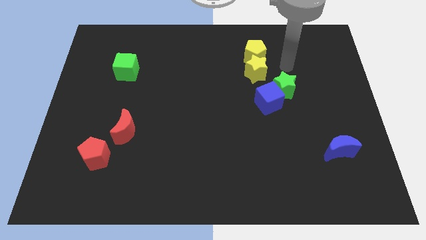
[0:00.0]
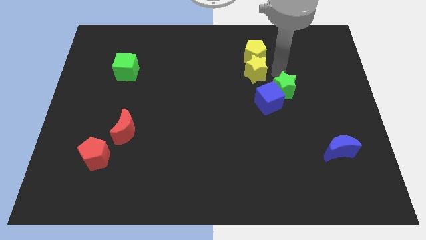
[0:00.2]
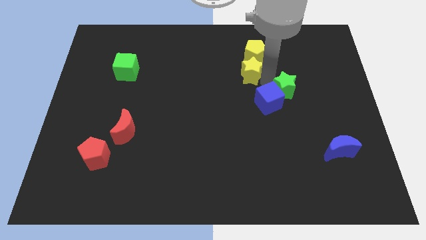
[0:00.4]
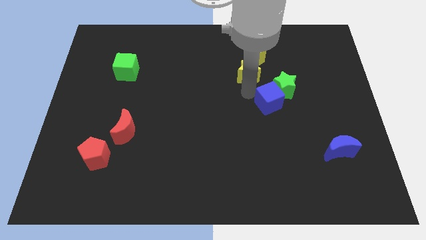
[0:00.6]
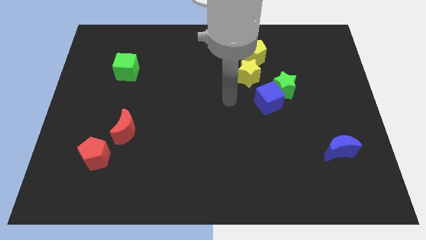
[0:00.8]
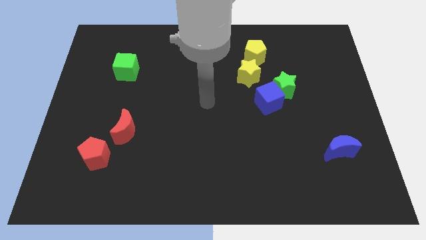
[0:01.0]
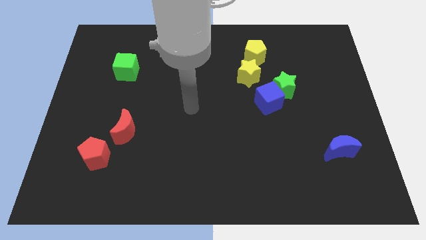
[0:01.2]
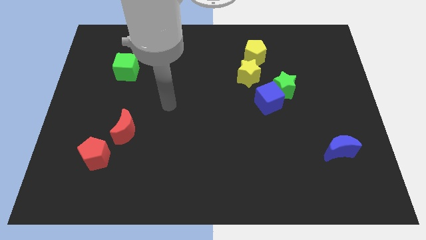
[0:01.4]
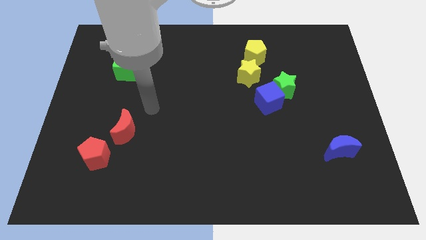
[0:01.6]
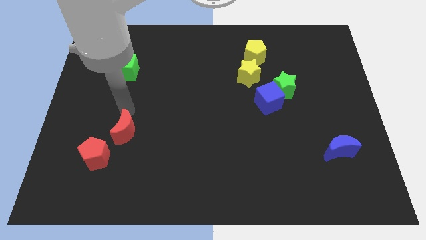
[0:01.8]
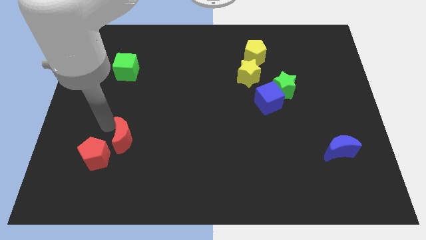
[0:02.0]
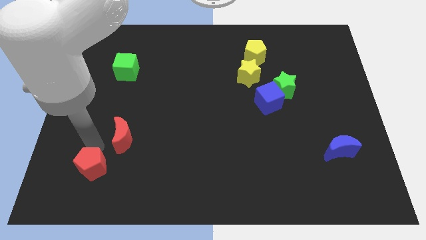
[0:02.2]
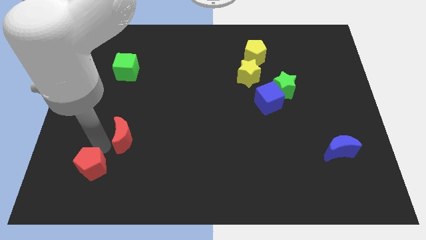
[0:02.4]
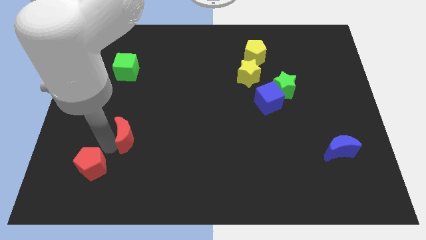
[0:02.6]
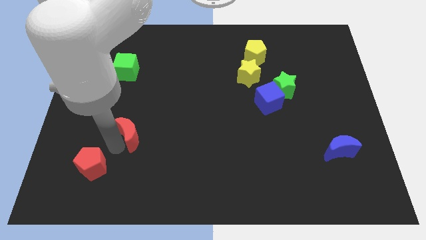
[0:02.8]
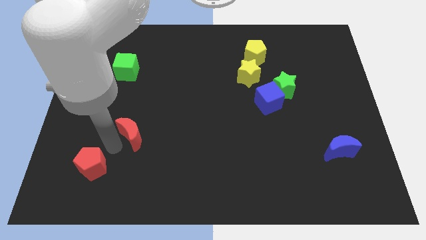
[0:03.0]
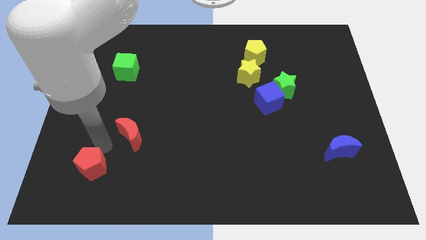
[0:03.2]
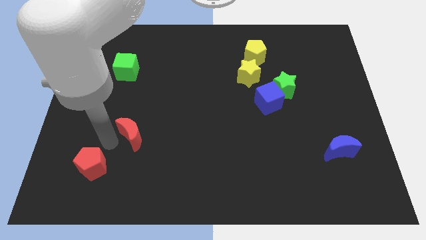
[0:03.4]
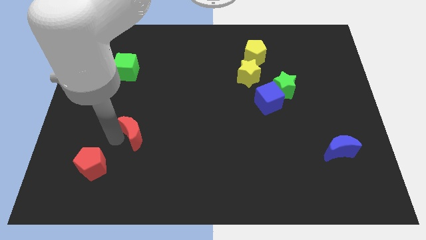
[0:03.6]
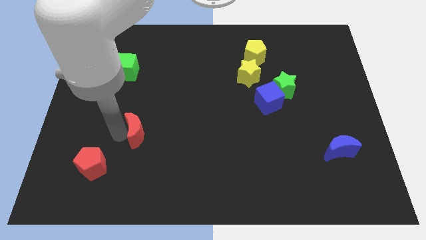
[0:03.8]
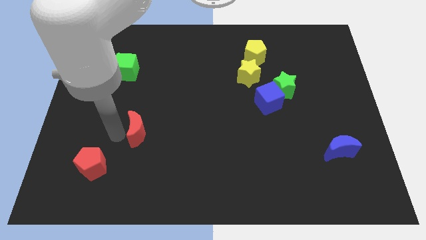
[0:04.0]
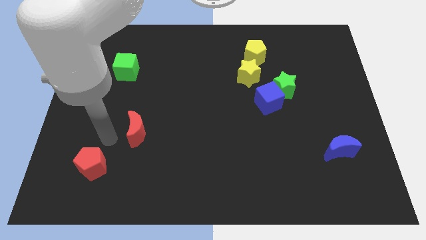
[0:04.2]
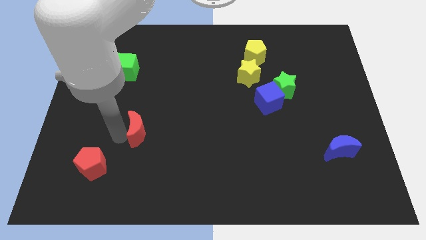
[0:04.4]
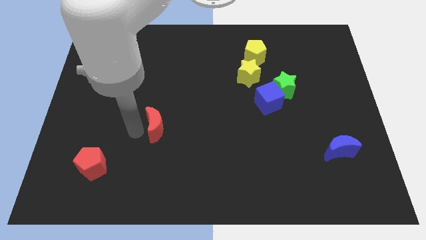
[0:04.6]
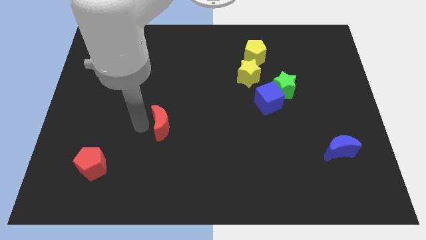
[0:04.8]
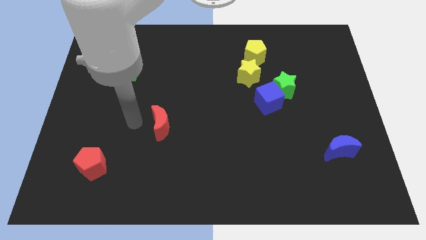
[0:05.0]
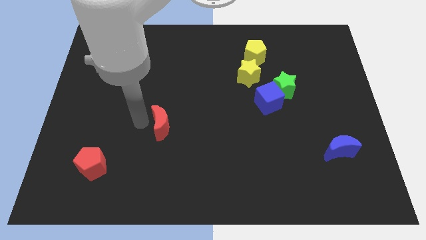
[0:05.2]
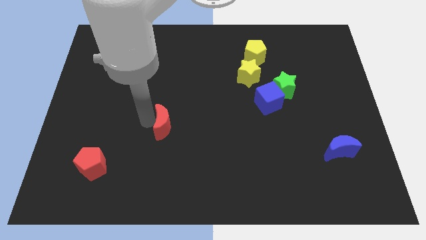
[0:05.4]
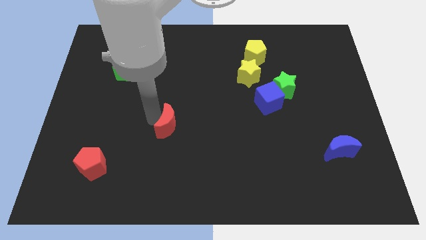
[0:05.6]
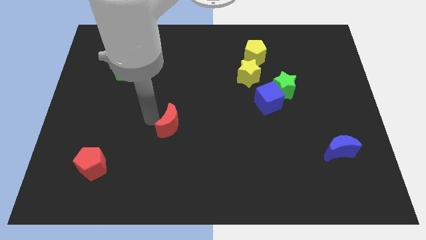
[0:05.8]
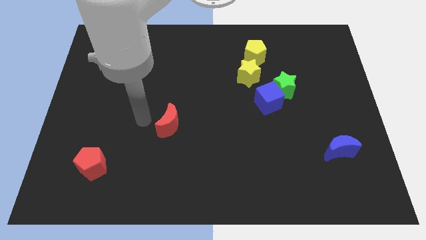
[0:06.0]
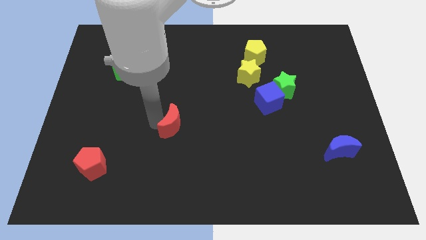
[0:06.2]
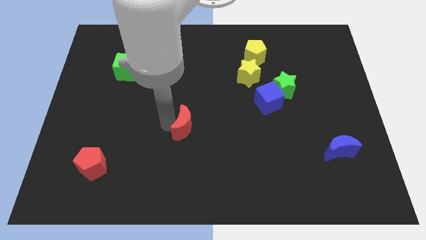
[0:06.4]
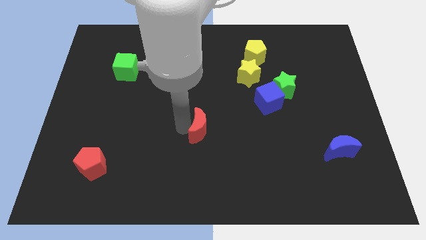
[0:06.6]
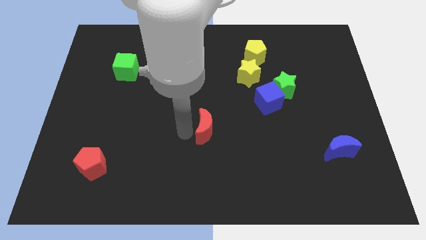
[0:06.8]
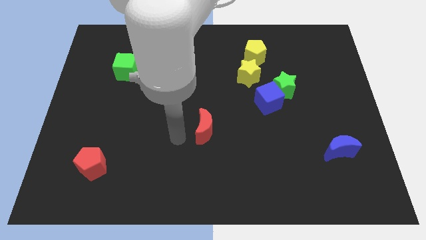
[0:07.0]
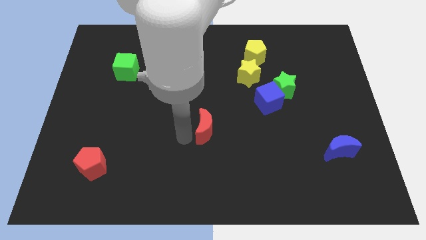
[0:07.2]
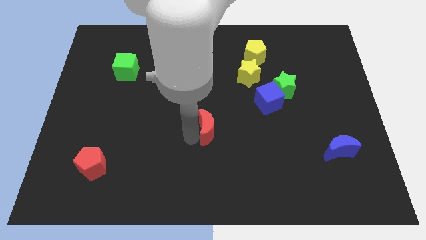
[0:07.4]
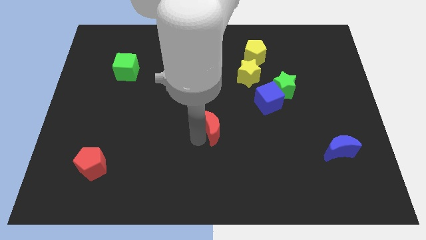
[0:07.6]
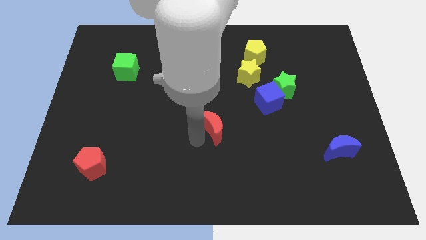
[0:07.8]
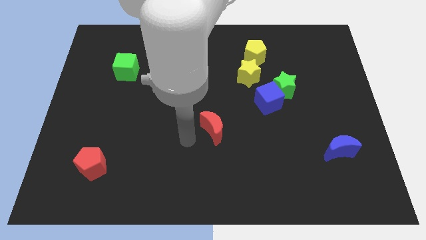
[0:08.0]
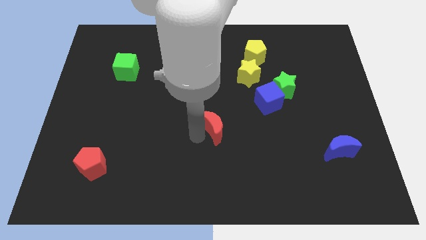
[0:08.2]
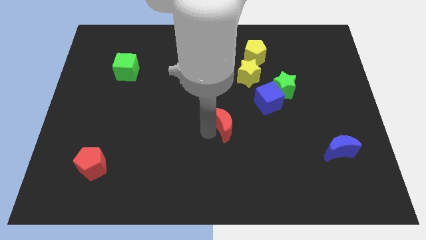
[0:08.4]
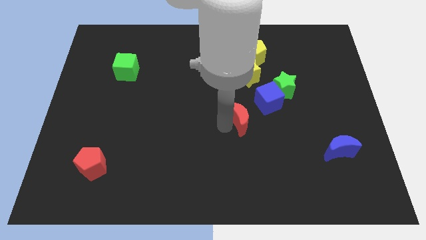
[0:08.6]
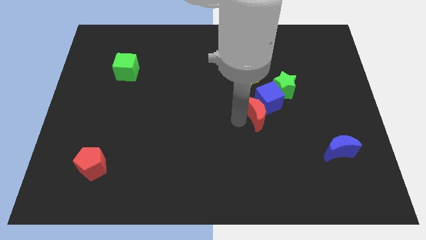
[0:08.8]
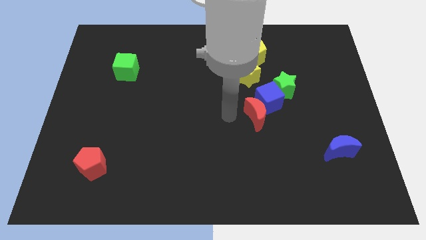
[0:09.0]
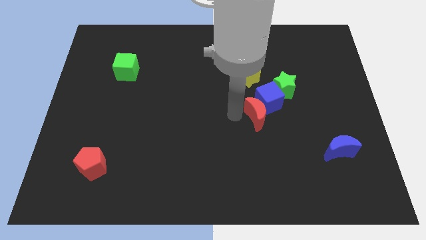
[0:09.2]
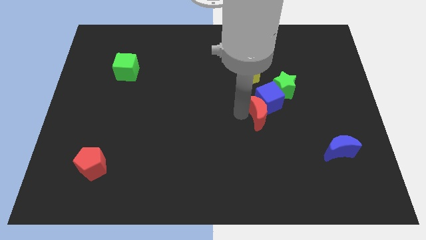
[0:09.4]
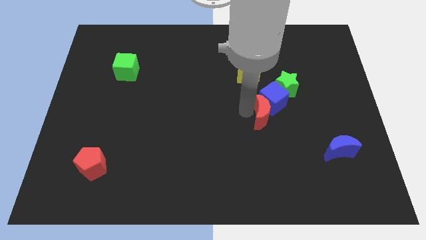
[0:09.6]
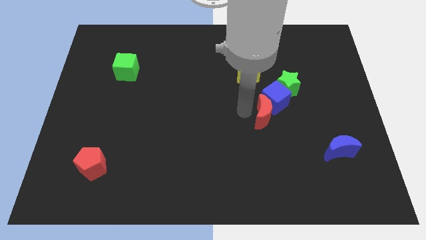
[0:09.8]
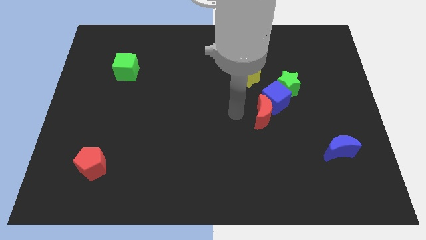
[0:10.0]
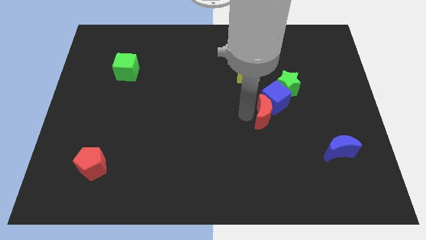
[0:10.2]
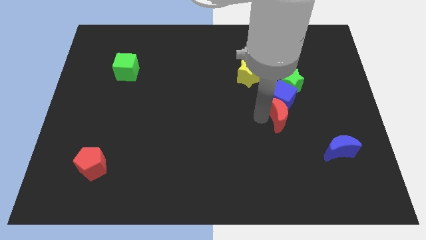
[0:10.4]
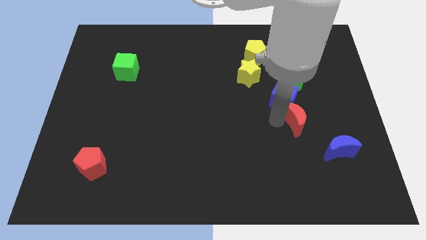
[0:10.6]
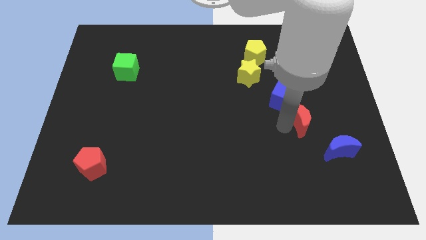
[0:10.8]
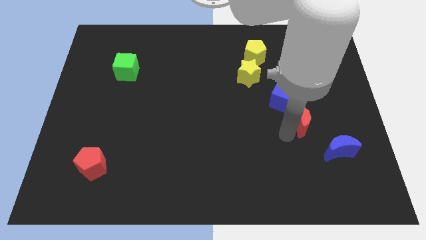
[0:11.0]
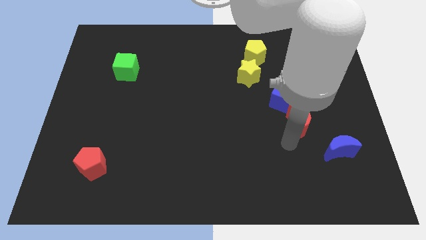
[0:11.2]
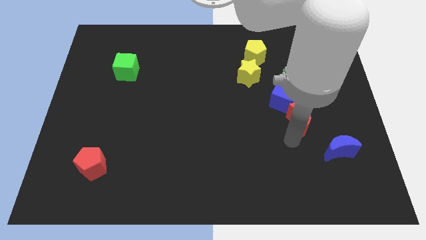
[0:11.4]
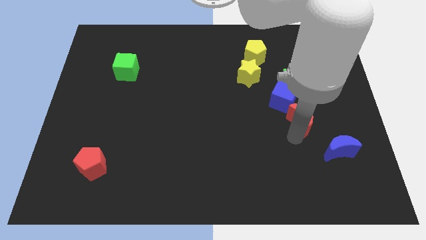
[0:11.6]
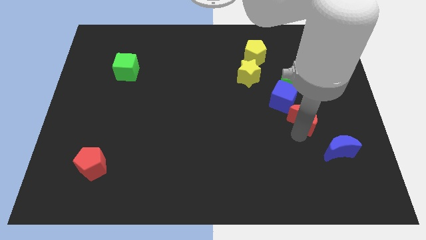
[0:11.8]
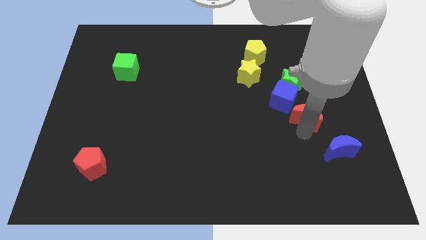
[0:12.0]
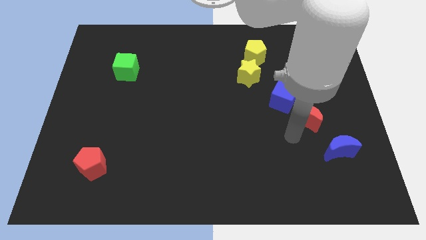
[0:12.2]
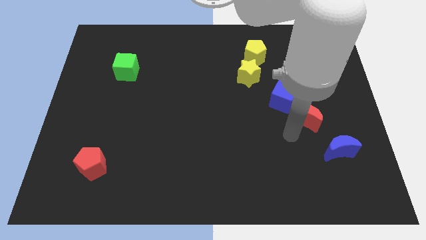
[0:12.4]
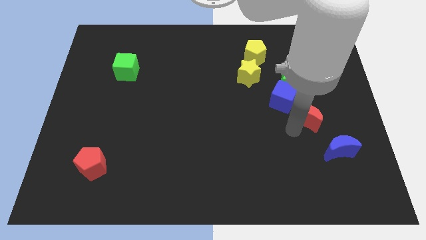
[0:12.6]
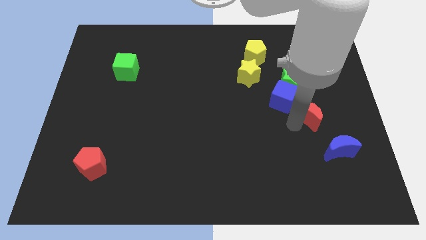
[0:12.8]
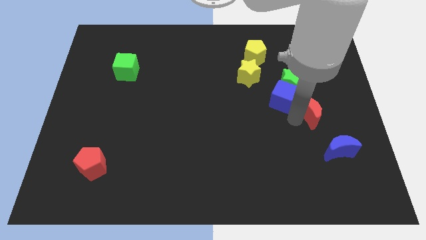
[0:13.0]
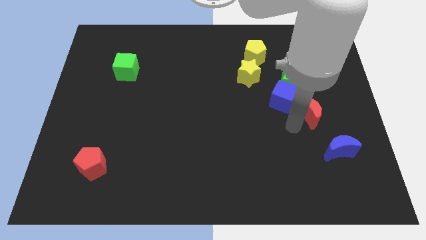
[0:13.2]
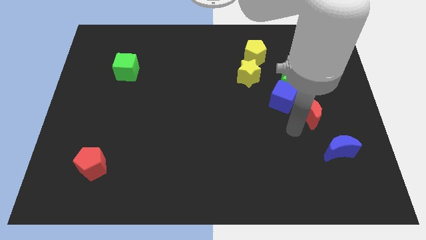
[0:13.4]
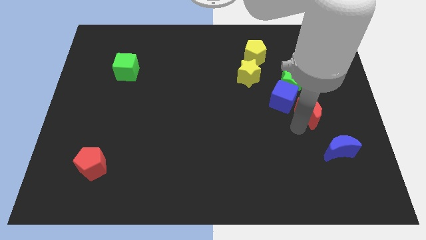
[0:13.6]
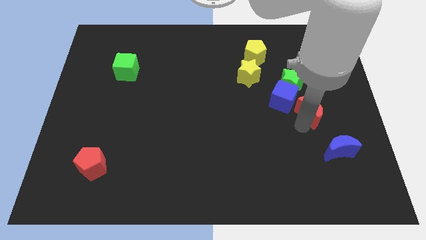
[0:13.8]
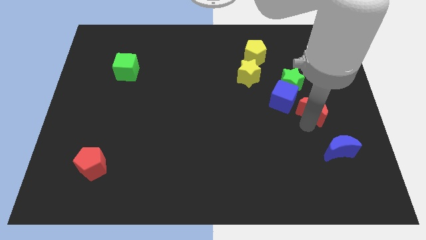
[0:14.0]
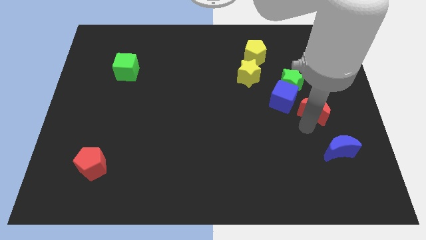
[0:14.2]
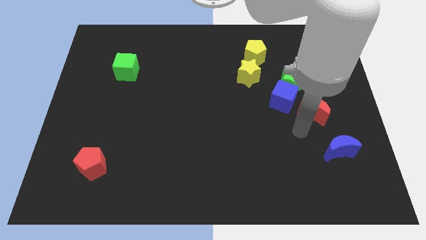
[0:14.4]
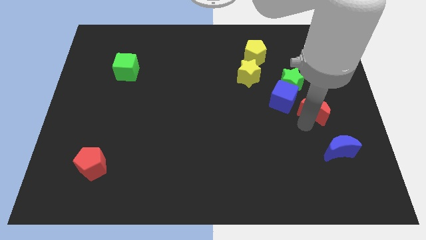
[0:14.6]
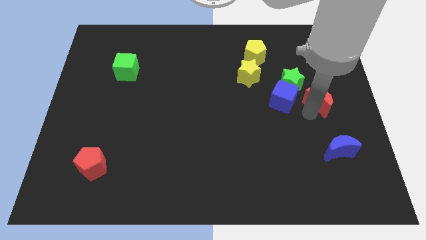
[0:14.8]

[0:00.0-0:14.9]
push the red moon to the right side

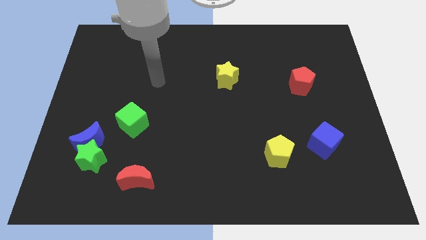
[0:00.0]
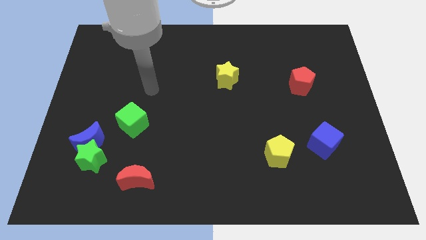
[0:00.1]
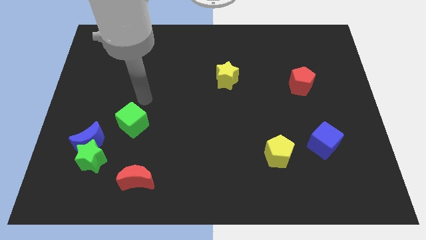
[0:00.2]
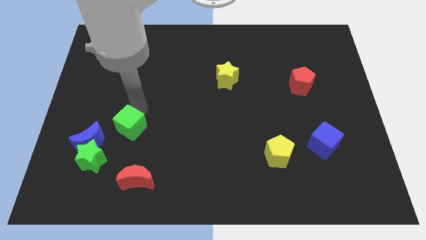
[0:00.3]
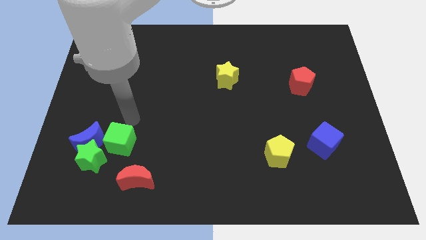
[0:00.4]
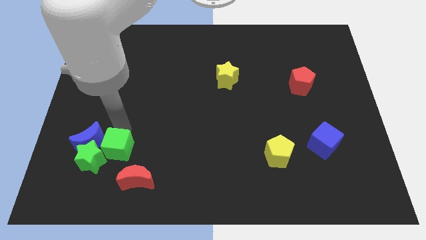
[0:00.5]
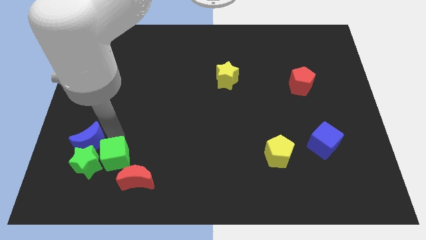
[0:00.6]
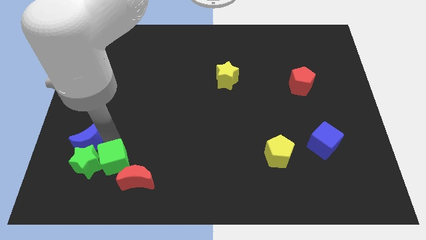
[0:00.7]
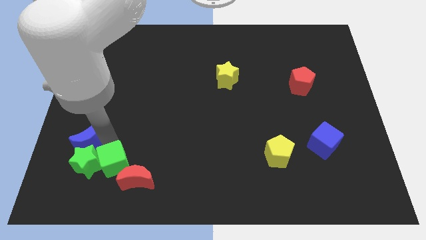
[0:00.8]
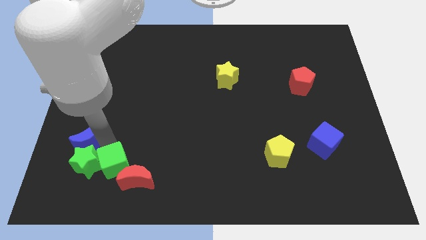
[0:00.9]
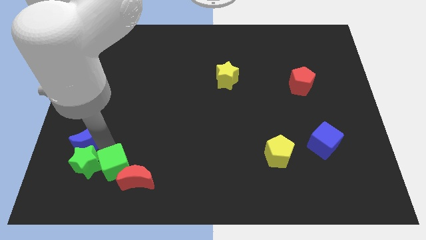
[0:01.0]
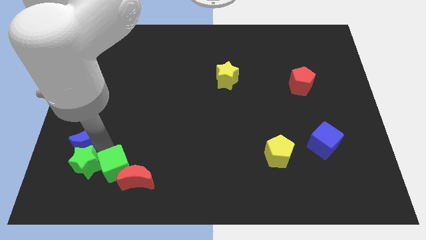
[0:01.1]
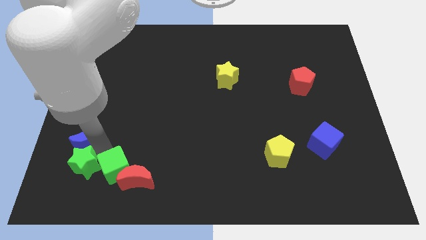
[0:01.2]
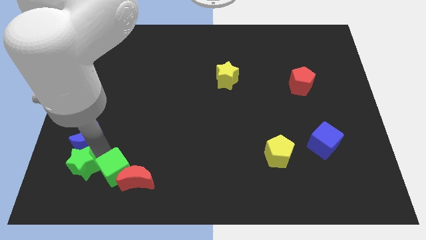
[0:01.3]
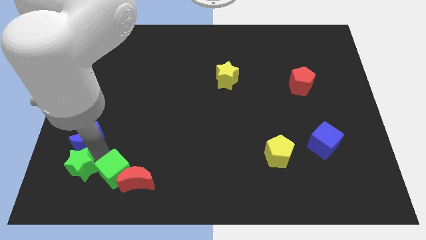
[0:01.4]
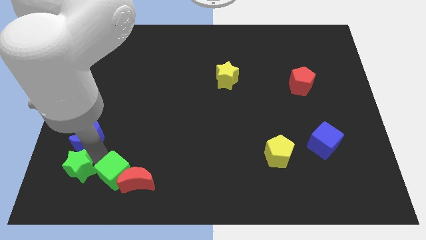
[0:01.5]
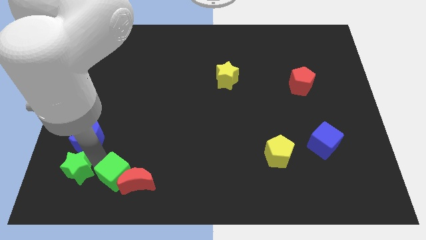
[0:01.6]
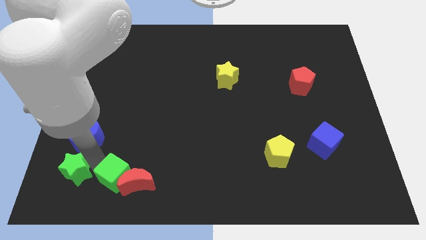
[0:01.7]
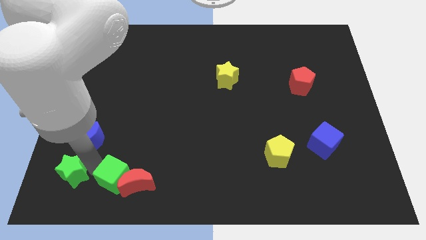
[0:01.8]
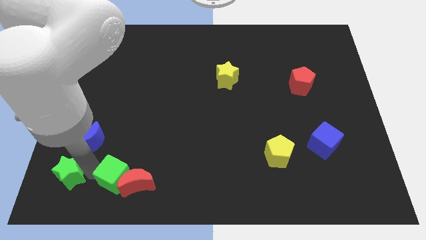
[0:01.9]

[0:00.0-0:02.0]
move the green star to the lower left corner
